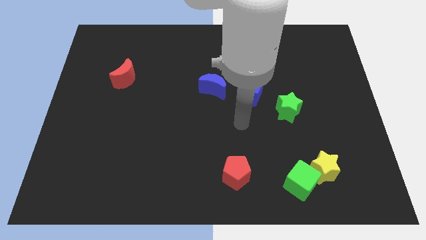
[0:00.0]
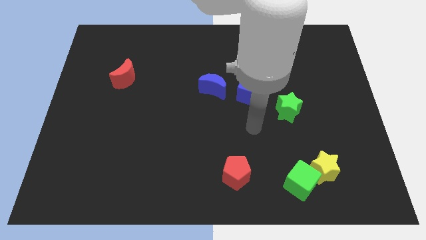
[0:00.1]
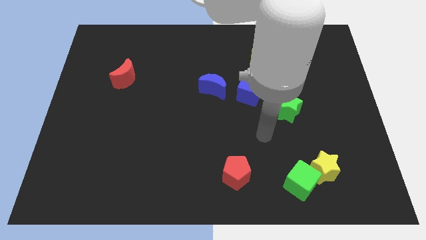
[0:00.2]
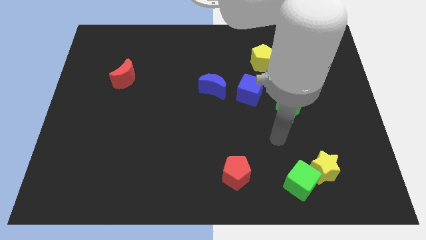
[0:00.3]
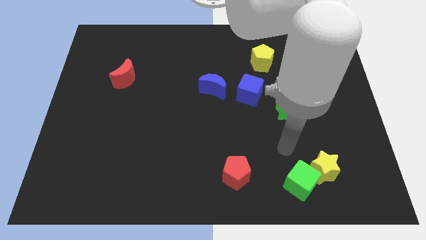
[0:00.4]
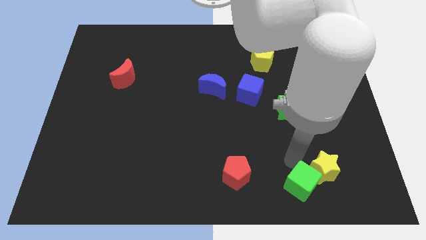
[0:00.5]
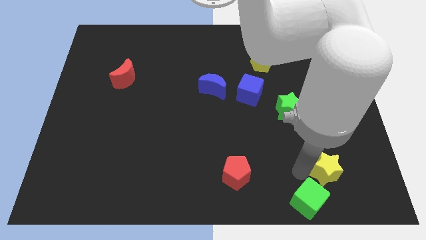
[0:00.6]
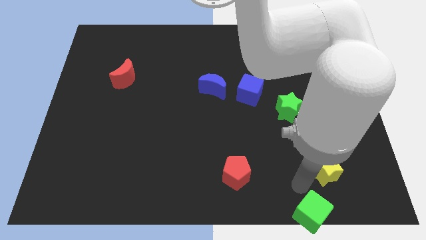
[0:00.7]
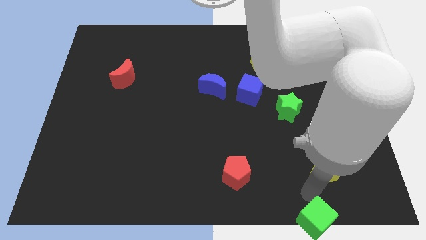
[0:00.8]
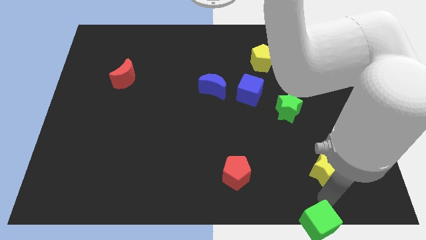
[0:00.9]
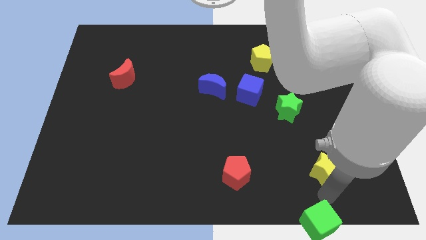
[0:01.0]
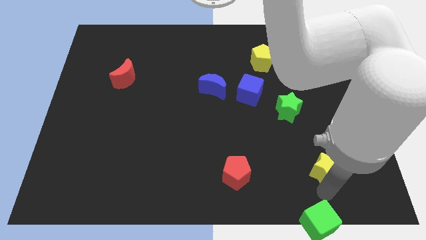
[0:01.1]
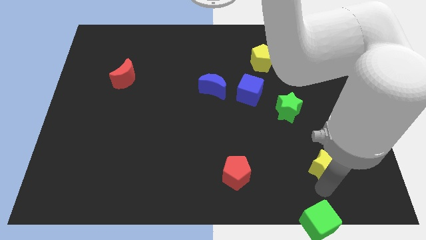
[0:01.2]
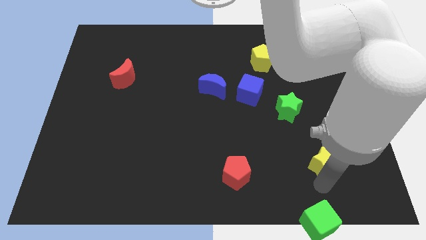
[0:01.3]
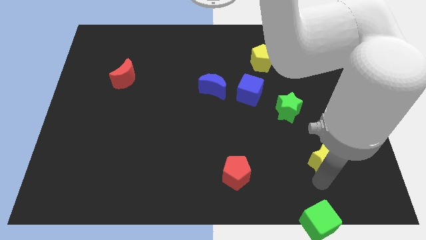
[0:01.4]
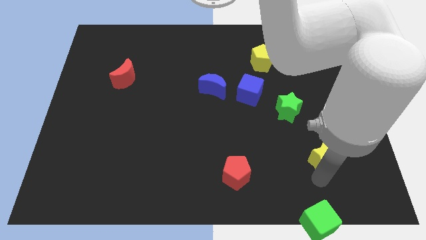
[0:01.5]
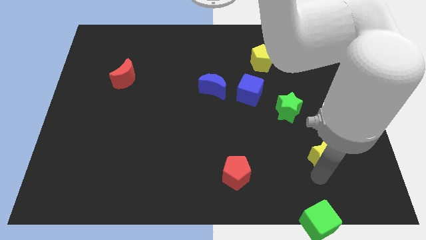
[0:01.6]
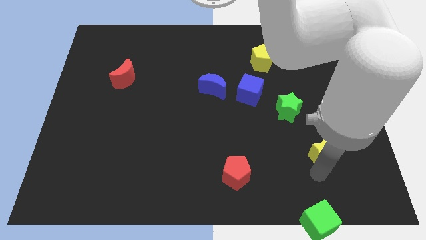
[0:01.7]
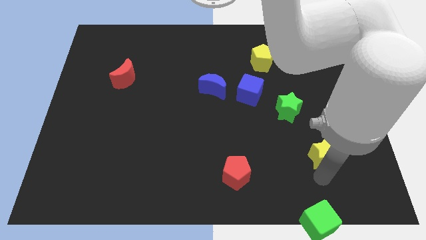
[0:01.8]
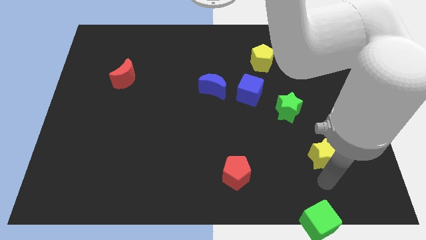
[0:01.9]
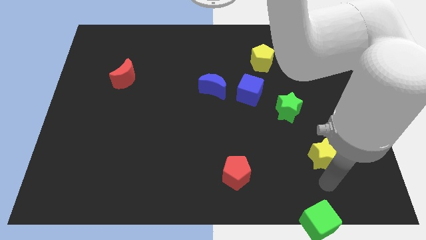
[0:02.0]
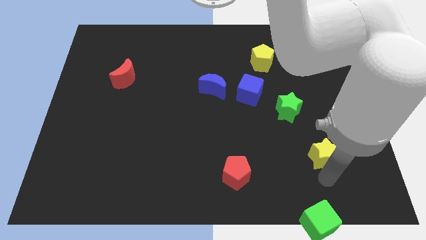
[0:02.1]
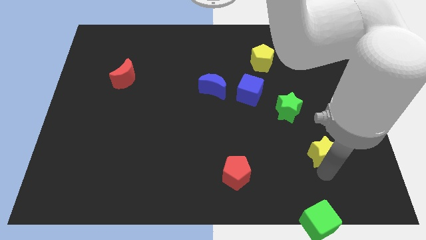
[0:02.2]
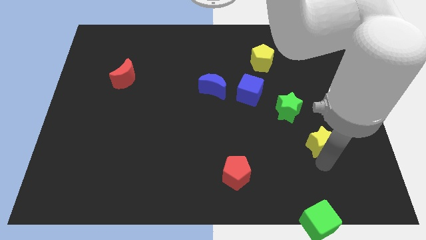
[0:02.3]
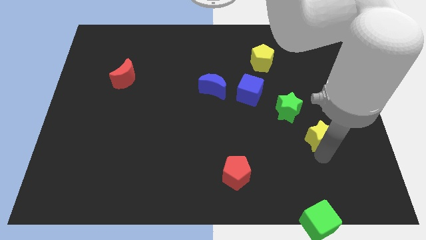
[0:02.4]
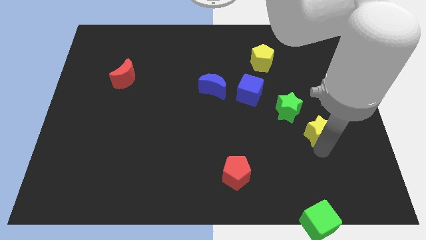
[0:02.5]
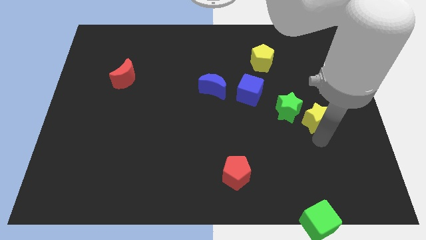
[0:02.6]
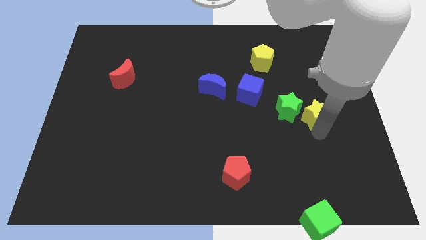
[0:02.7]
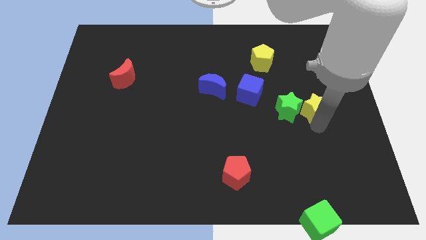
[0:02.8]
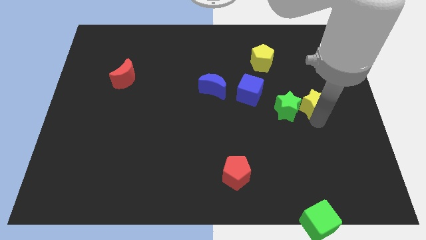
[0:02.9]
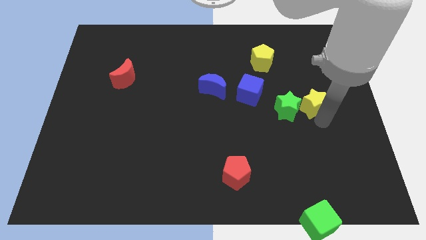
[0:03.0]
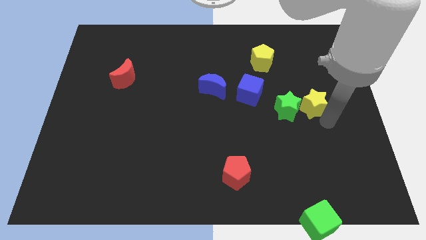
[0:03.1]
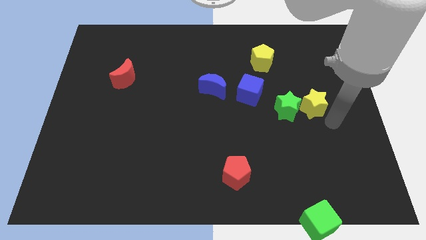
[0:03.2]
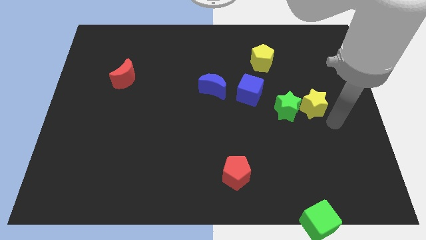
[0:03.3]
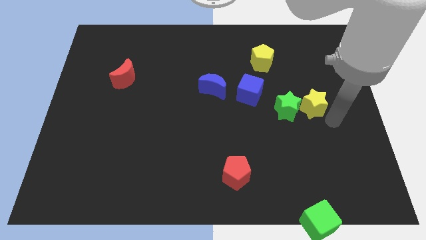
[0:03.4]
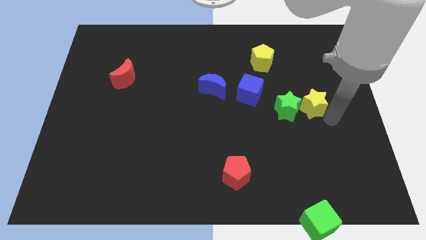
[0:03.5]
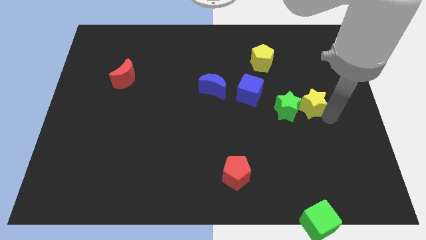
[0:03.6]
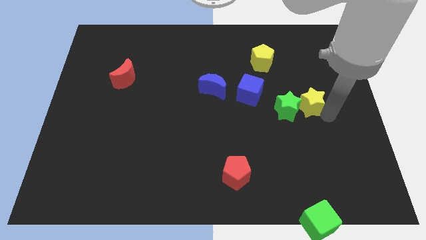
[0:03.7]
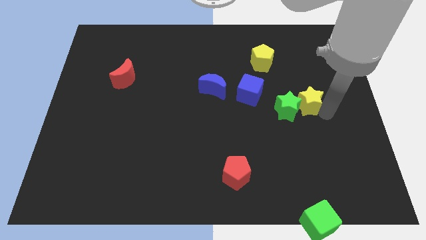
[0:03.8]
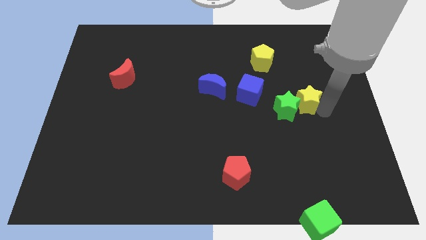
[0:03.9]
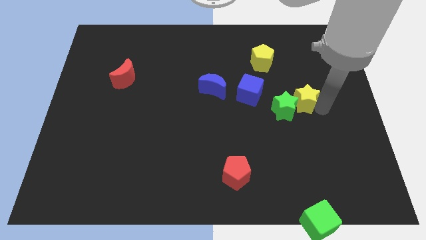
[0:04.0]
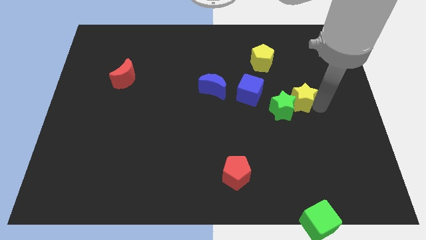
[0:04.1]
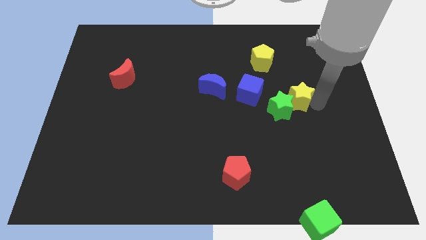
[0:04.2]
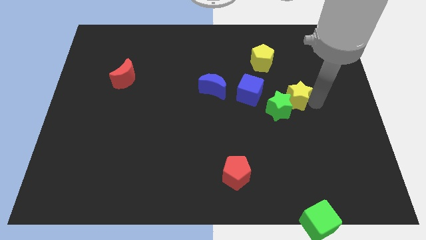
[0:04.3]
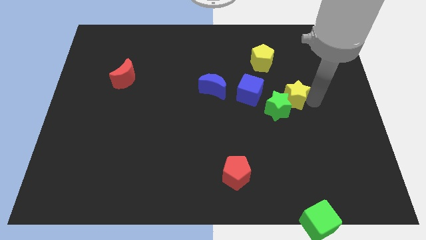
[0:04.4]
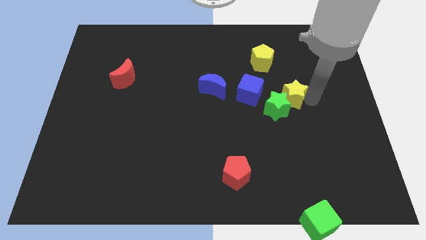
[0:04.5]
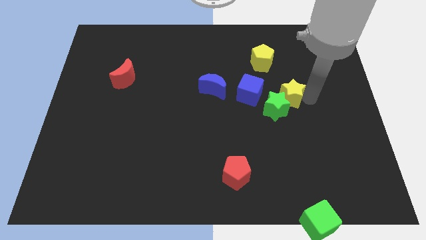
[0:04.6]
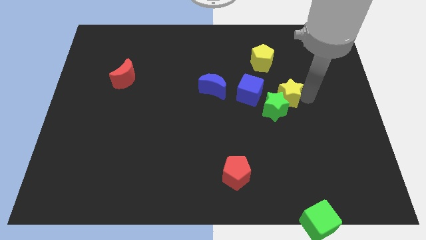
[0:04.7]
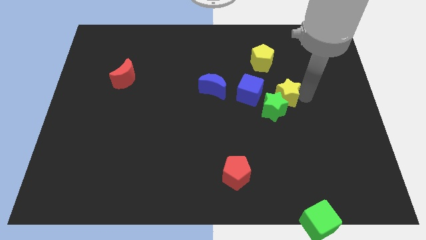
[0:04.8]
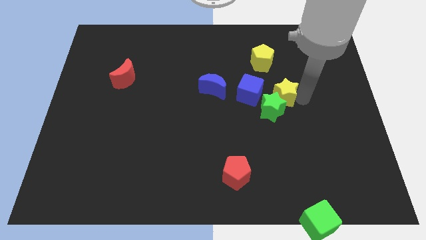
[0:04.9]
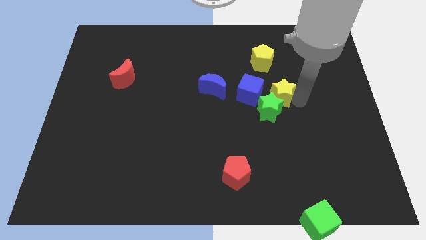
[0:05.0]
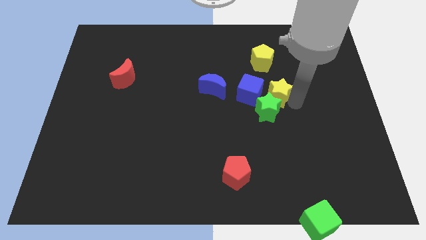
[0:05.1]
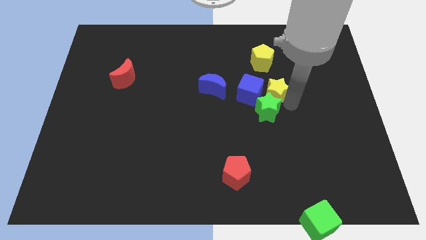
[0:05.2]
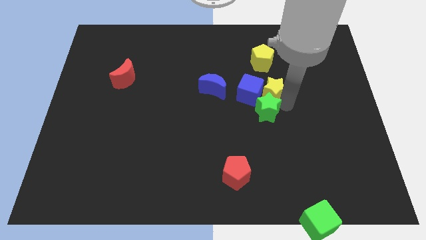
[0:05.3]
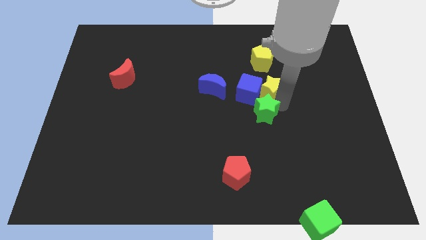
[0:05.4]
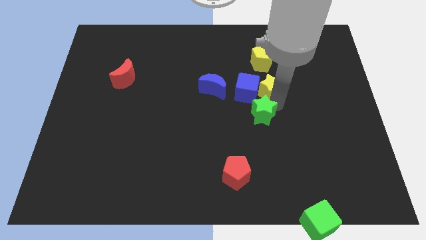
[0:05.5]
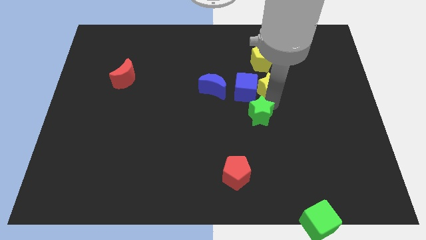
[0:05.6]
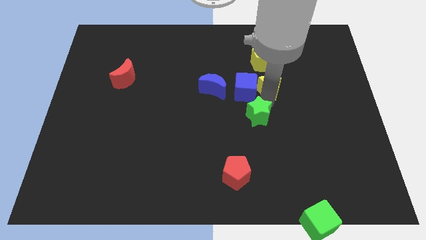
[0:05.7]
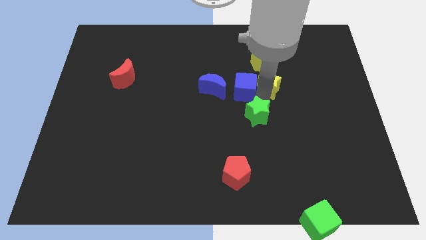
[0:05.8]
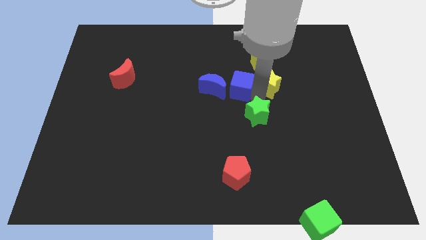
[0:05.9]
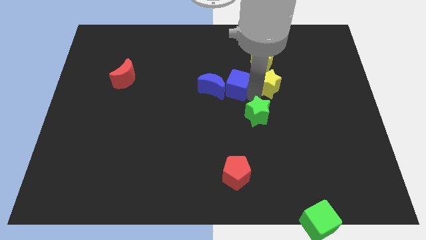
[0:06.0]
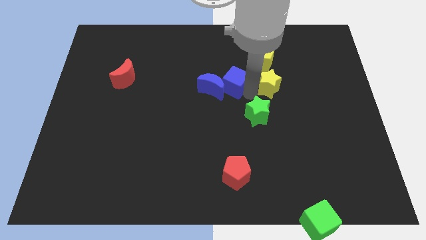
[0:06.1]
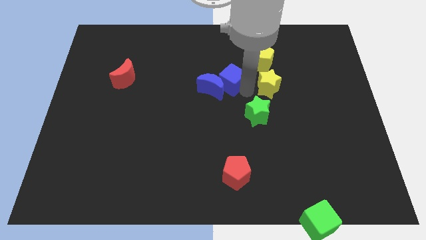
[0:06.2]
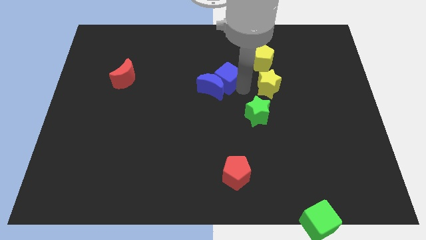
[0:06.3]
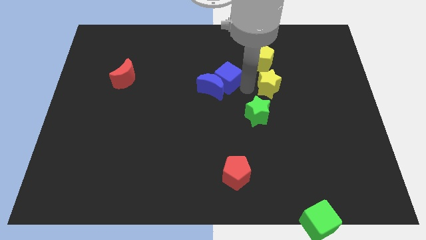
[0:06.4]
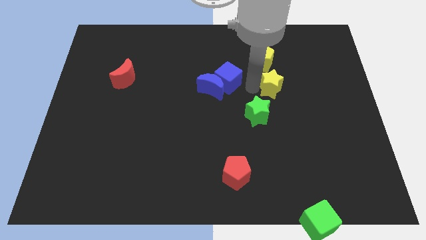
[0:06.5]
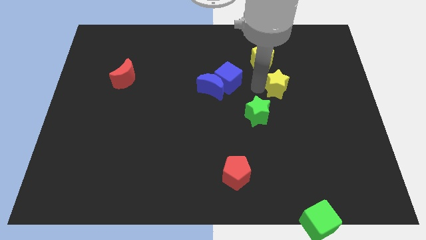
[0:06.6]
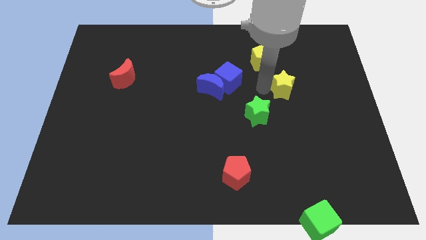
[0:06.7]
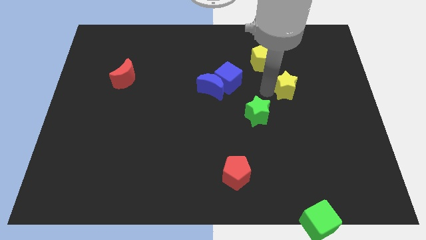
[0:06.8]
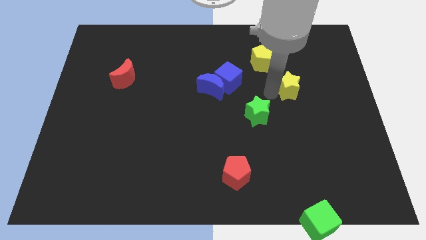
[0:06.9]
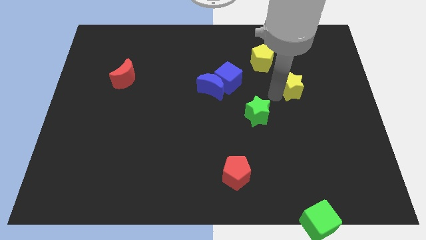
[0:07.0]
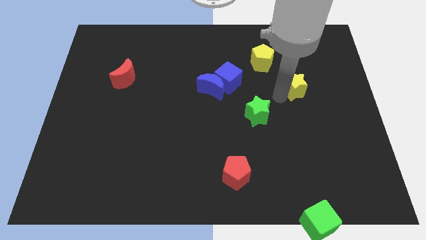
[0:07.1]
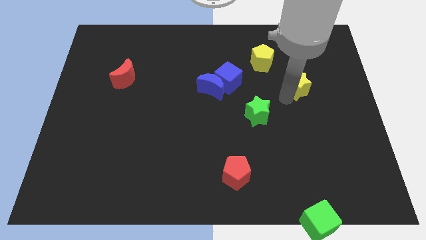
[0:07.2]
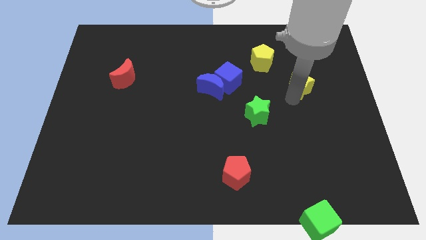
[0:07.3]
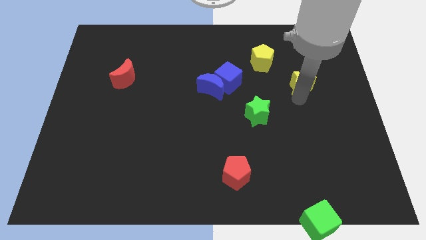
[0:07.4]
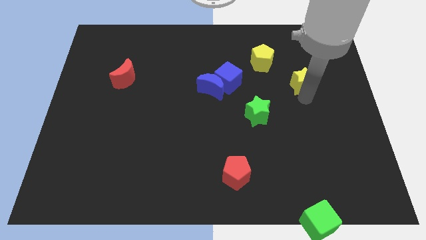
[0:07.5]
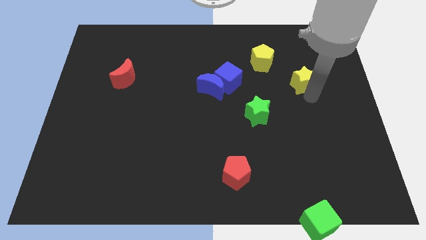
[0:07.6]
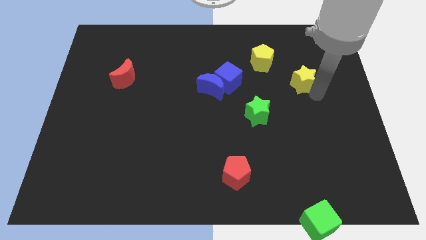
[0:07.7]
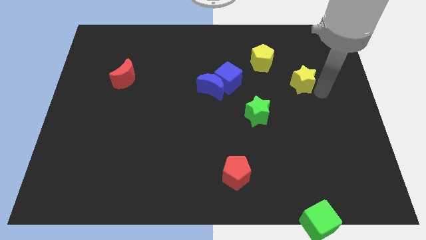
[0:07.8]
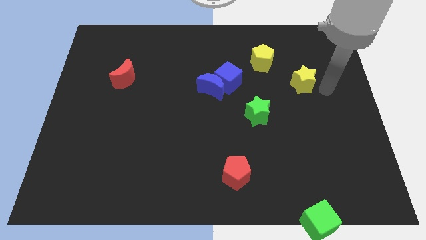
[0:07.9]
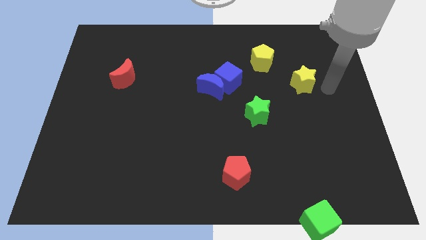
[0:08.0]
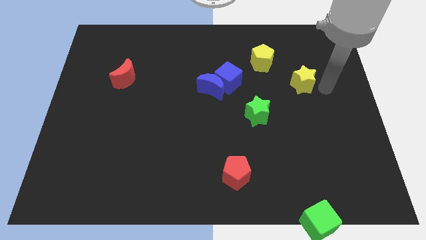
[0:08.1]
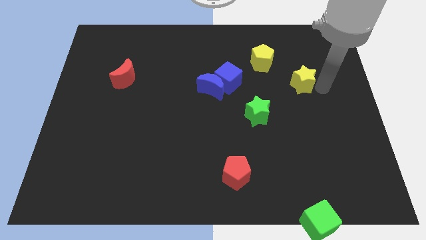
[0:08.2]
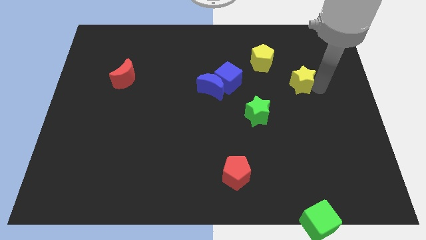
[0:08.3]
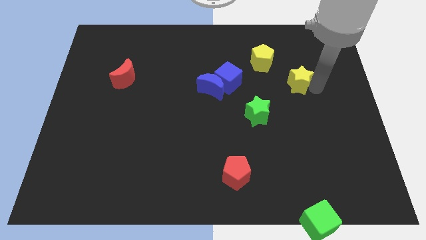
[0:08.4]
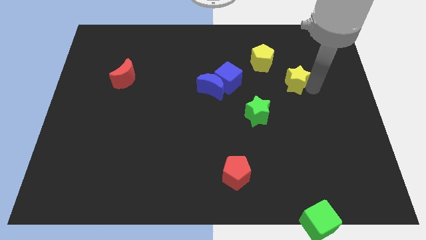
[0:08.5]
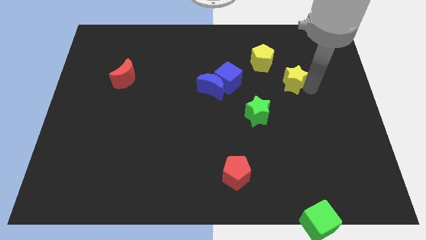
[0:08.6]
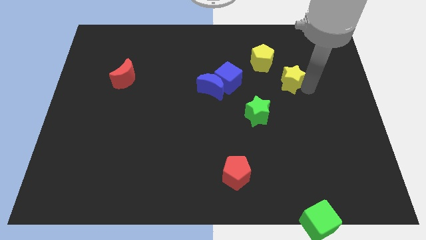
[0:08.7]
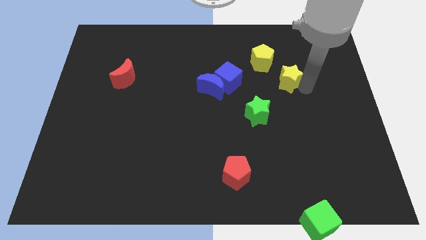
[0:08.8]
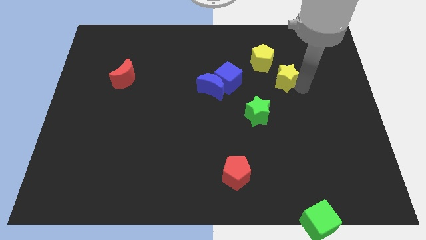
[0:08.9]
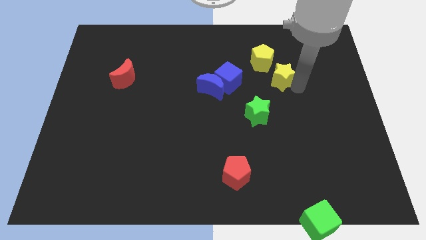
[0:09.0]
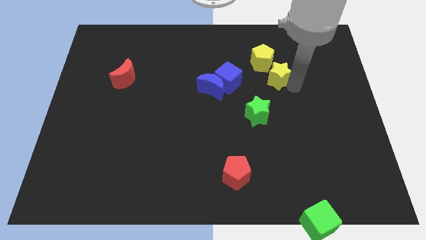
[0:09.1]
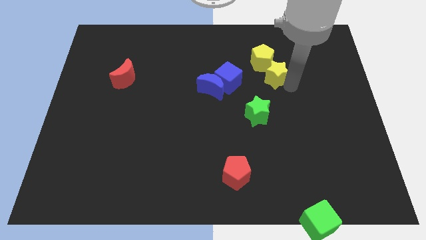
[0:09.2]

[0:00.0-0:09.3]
slide the yellow star next to the yellow pentagon
